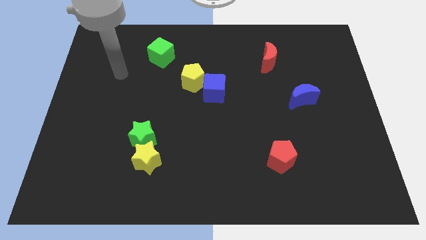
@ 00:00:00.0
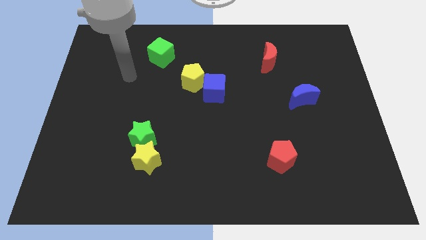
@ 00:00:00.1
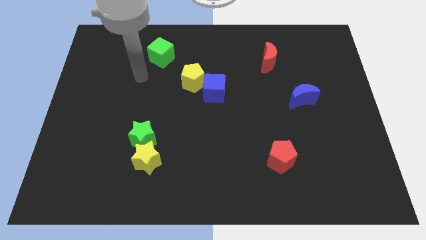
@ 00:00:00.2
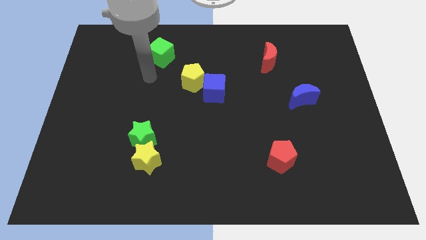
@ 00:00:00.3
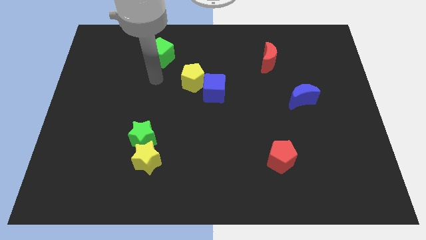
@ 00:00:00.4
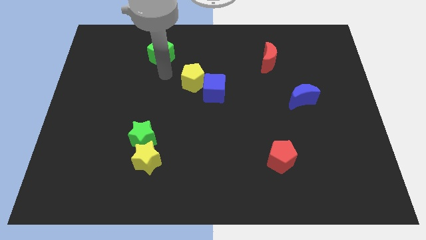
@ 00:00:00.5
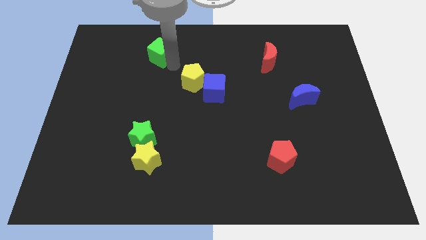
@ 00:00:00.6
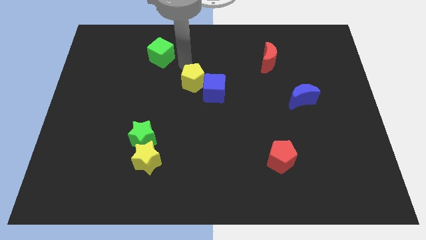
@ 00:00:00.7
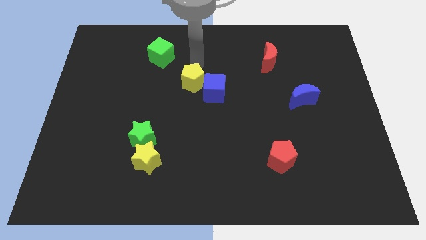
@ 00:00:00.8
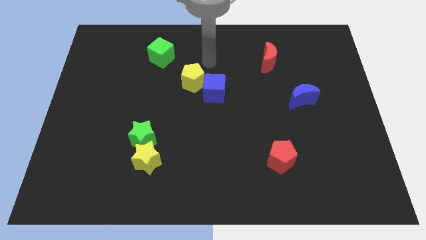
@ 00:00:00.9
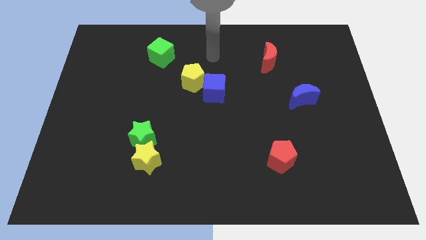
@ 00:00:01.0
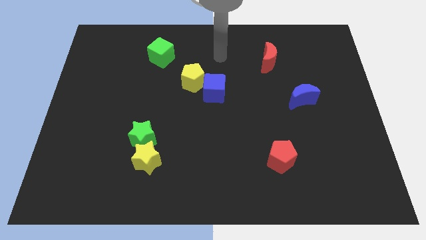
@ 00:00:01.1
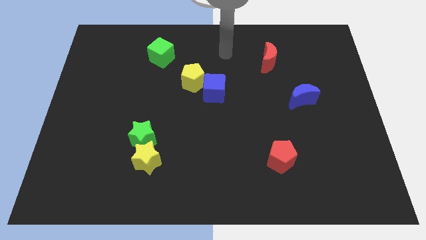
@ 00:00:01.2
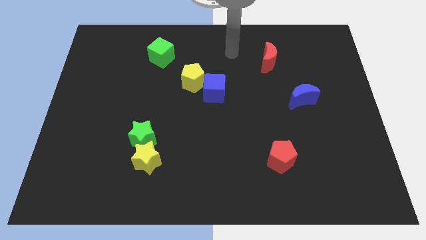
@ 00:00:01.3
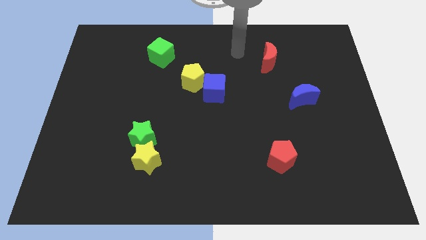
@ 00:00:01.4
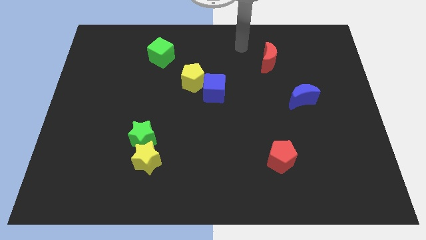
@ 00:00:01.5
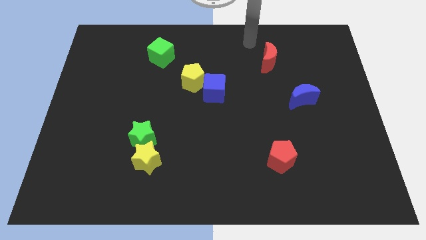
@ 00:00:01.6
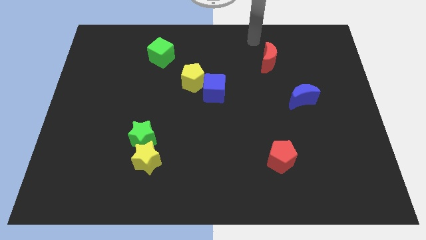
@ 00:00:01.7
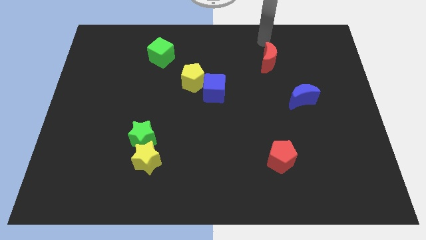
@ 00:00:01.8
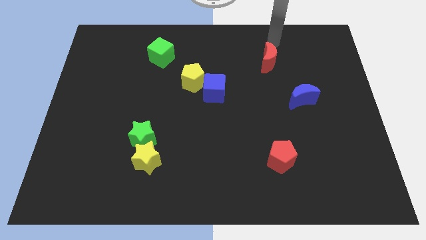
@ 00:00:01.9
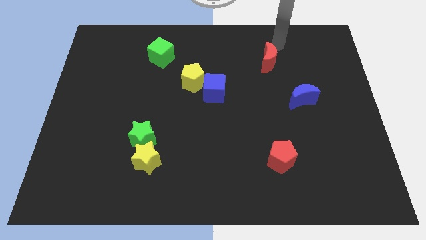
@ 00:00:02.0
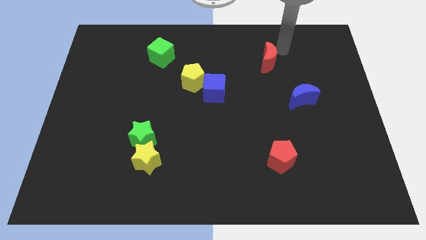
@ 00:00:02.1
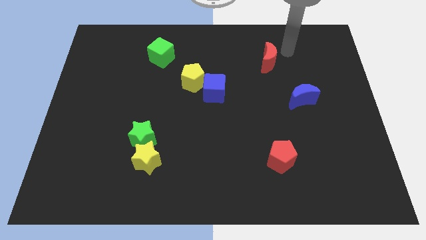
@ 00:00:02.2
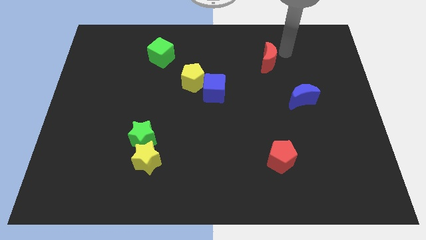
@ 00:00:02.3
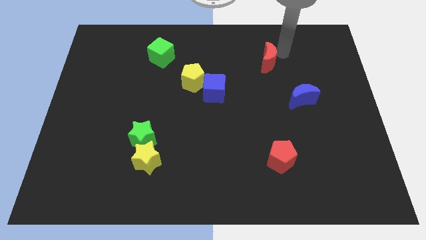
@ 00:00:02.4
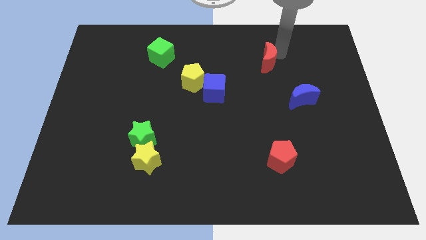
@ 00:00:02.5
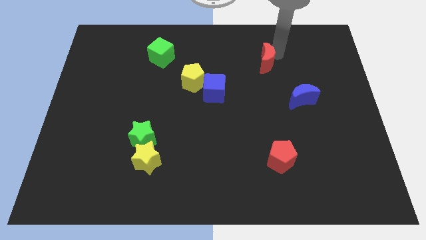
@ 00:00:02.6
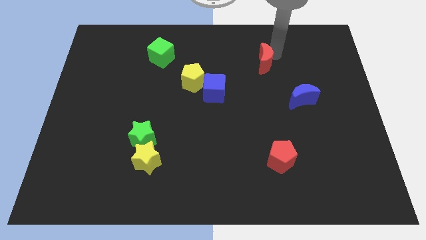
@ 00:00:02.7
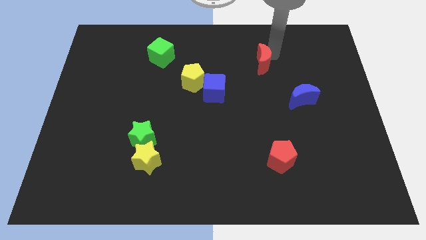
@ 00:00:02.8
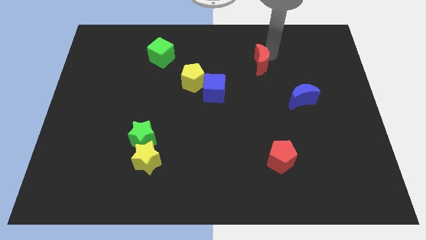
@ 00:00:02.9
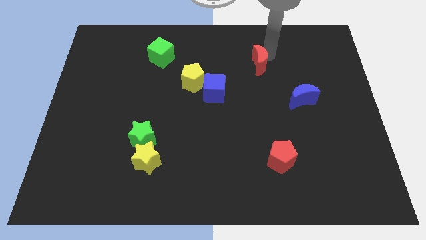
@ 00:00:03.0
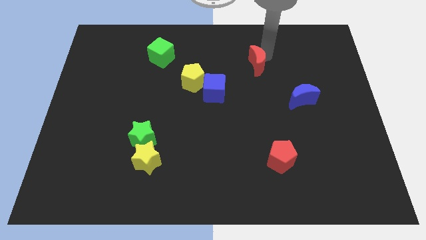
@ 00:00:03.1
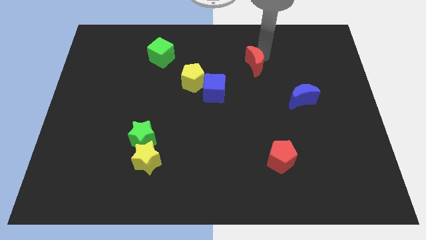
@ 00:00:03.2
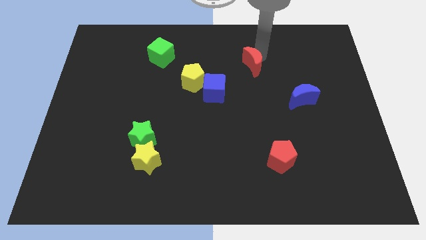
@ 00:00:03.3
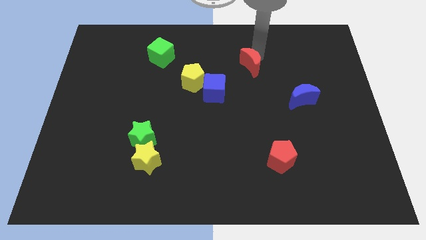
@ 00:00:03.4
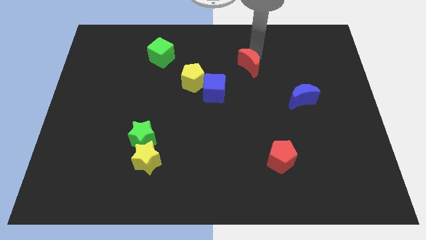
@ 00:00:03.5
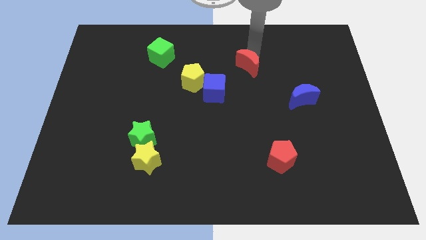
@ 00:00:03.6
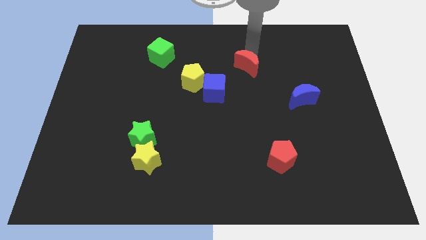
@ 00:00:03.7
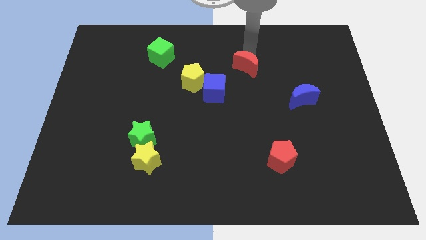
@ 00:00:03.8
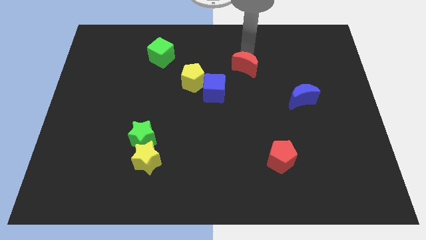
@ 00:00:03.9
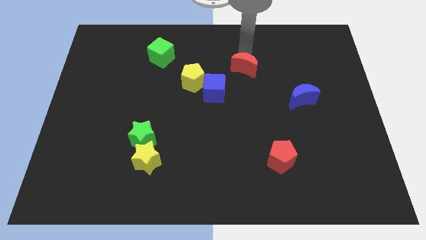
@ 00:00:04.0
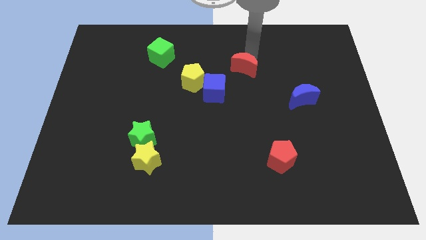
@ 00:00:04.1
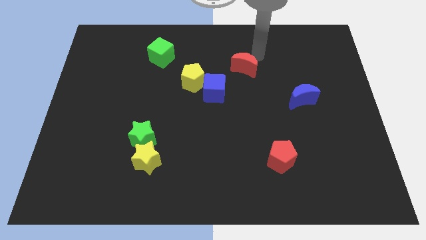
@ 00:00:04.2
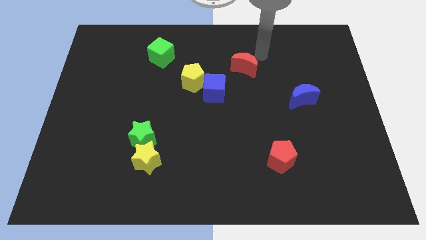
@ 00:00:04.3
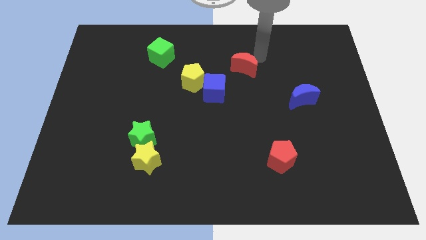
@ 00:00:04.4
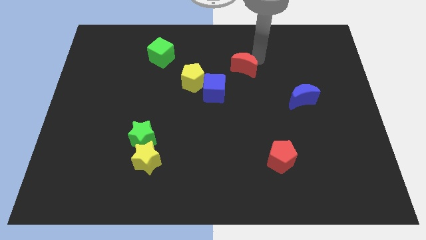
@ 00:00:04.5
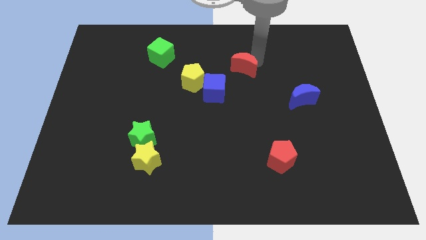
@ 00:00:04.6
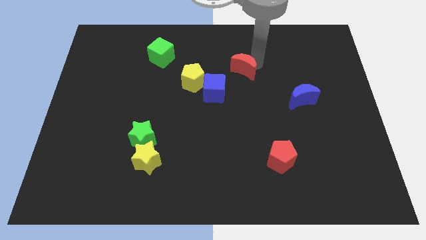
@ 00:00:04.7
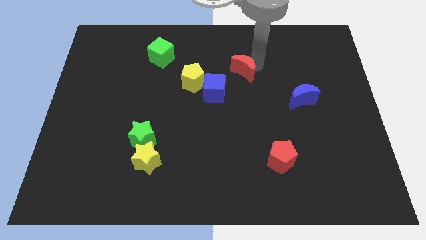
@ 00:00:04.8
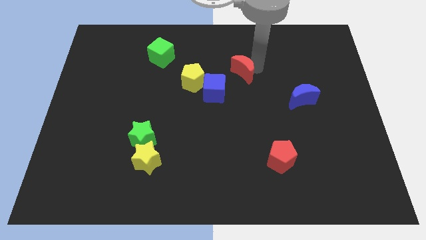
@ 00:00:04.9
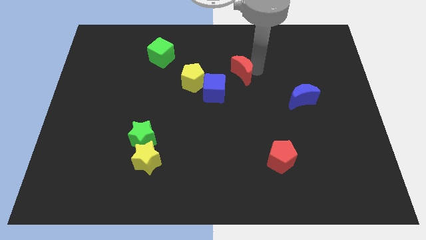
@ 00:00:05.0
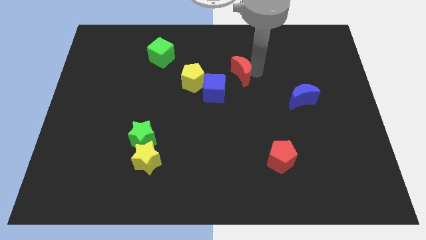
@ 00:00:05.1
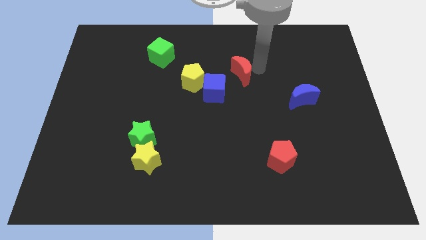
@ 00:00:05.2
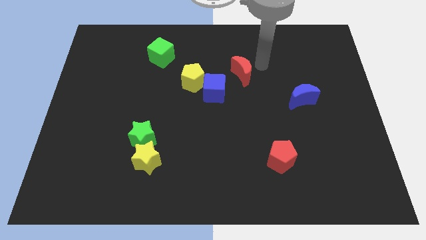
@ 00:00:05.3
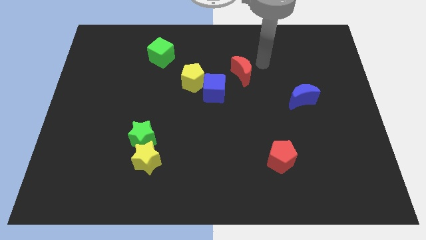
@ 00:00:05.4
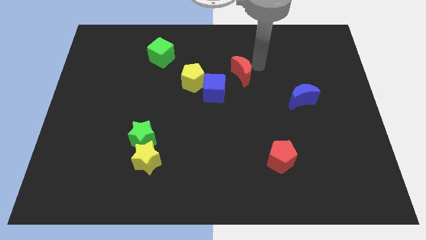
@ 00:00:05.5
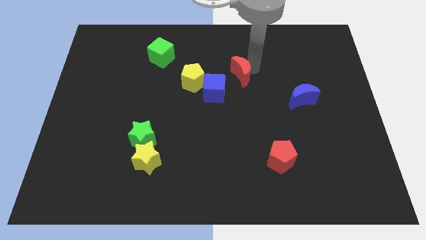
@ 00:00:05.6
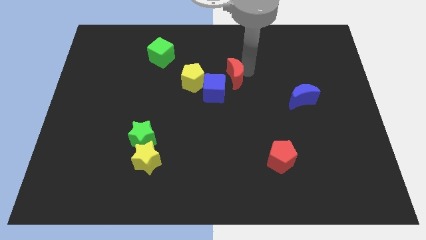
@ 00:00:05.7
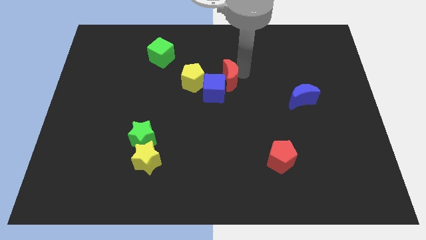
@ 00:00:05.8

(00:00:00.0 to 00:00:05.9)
slide the red moon towards the blue cube
